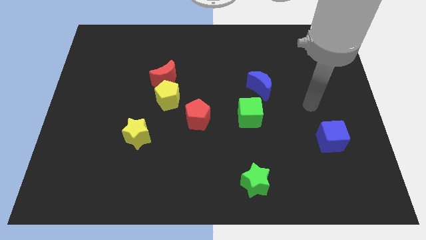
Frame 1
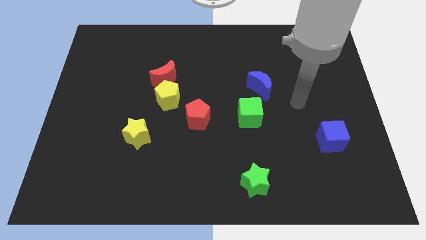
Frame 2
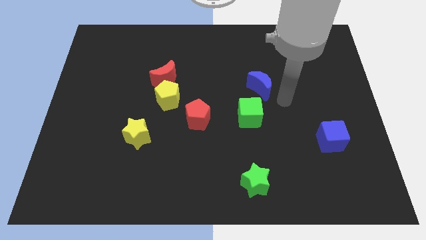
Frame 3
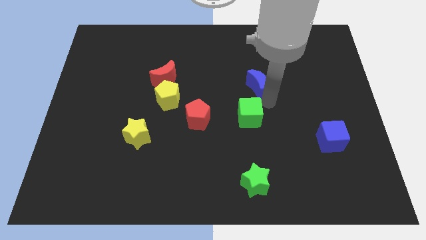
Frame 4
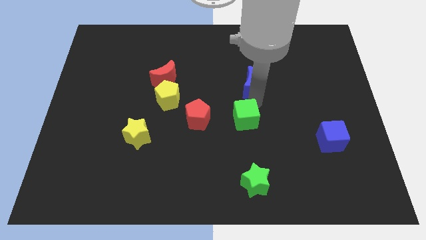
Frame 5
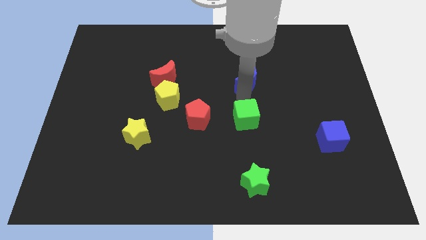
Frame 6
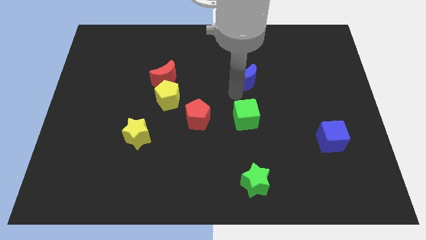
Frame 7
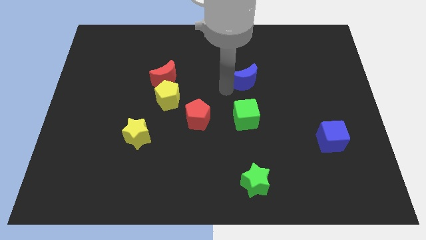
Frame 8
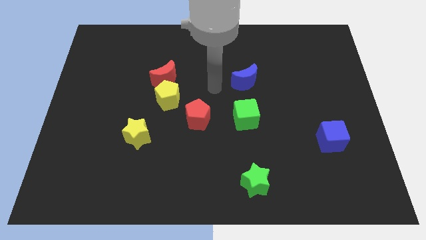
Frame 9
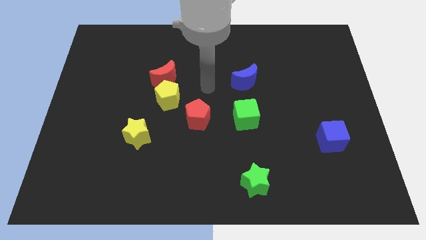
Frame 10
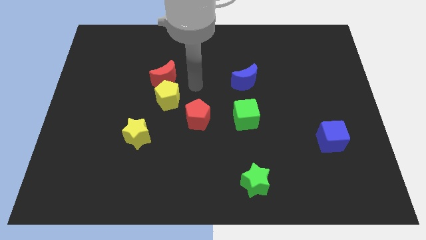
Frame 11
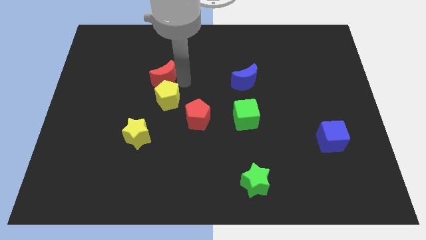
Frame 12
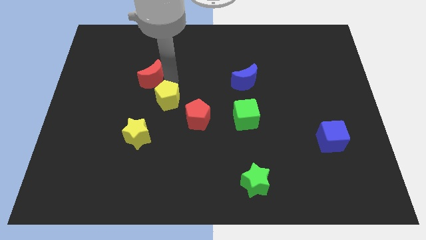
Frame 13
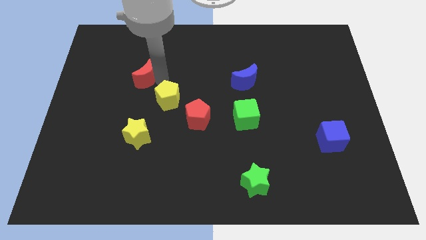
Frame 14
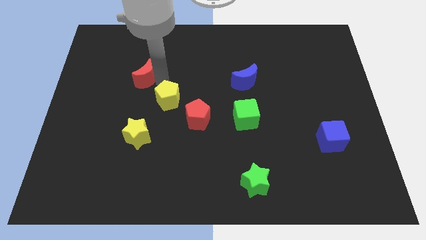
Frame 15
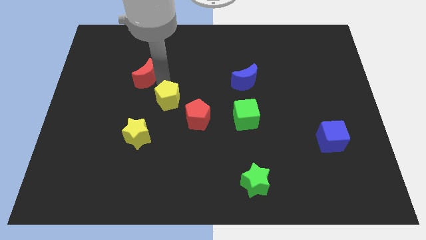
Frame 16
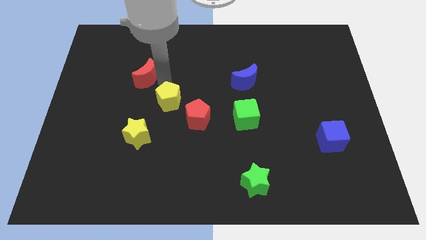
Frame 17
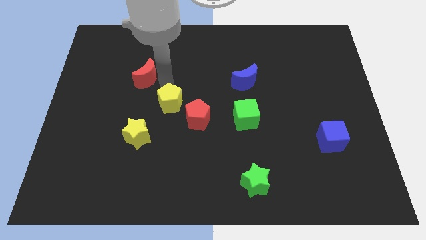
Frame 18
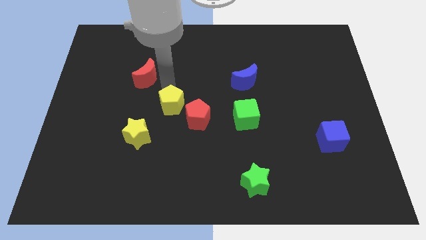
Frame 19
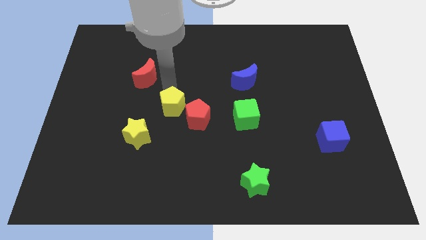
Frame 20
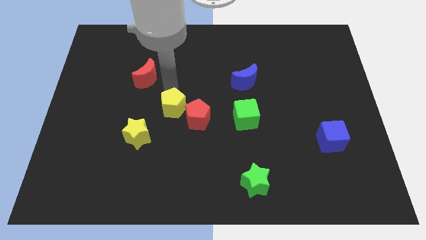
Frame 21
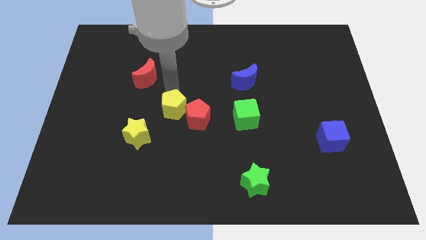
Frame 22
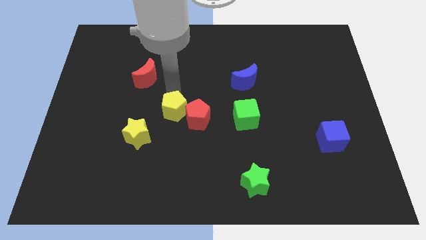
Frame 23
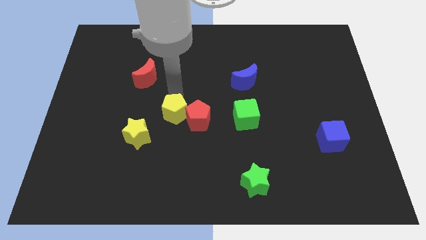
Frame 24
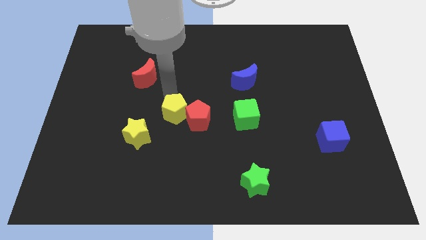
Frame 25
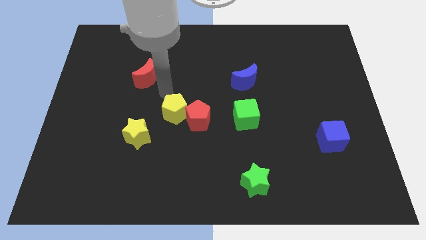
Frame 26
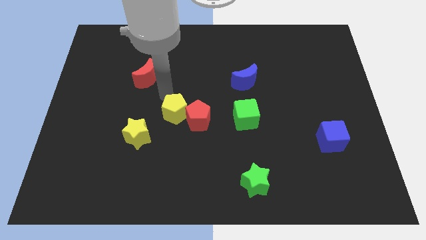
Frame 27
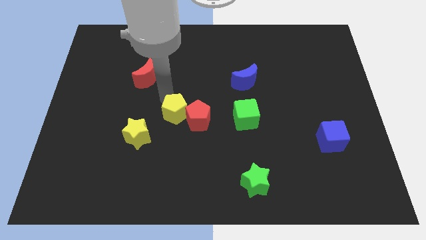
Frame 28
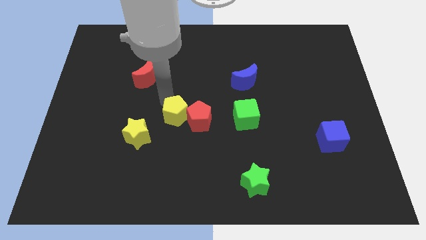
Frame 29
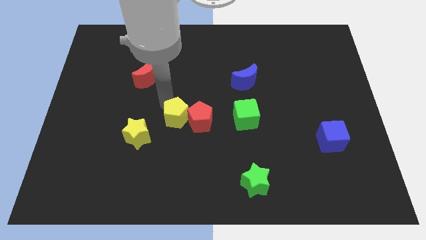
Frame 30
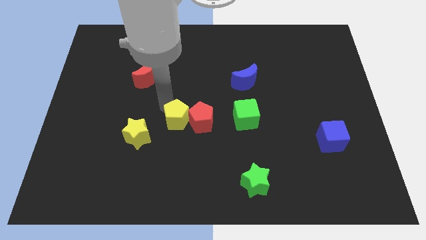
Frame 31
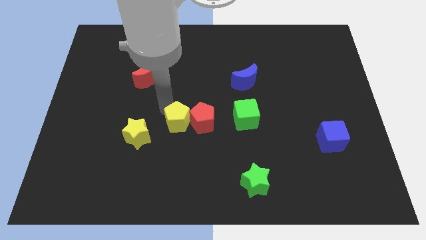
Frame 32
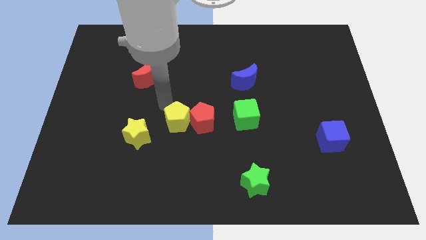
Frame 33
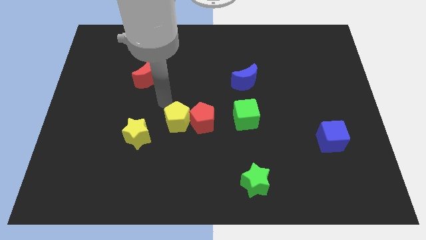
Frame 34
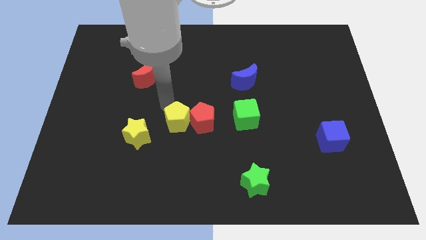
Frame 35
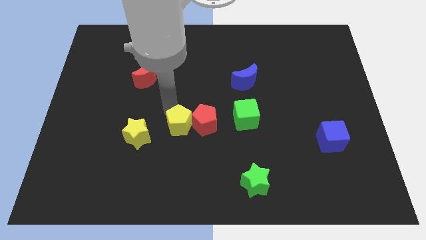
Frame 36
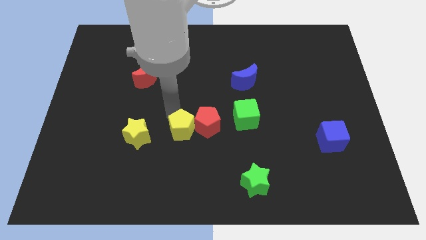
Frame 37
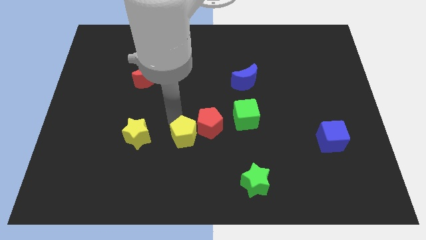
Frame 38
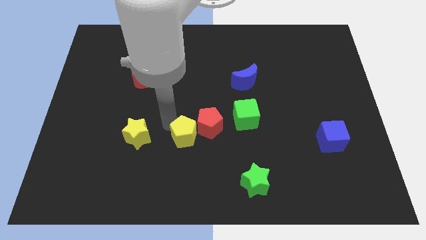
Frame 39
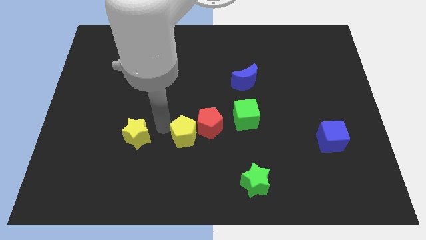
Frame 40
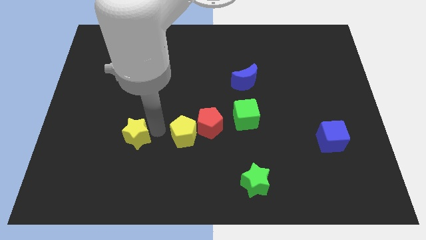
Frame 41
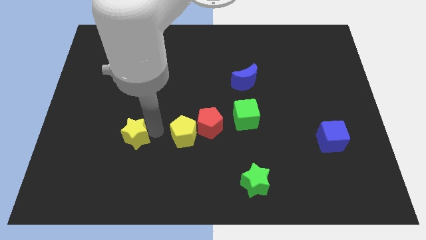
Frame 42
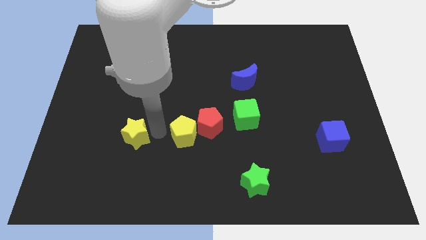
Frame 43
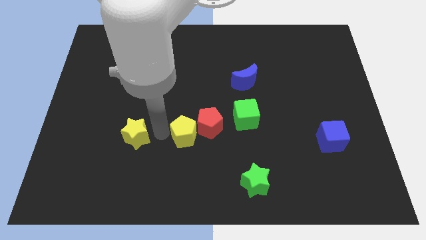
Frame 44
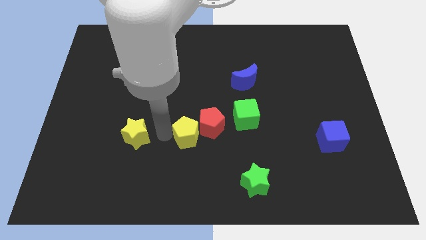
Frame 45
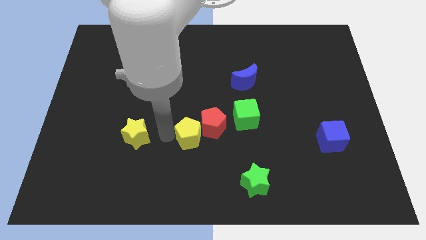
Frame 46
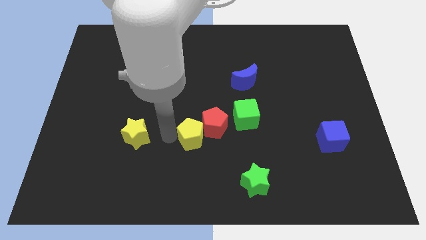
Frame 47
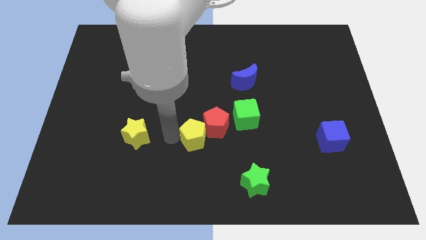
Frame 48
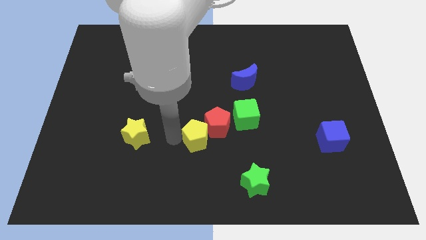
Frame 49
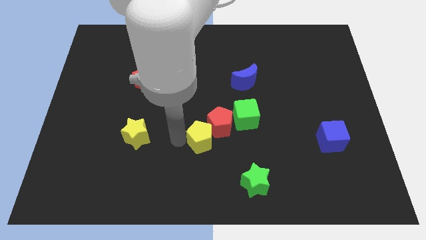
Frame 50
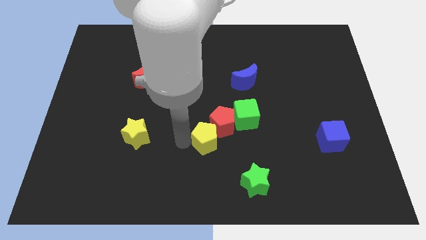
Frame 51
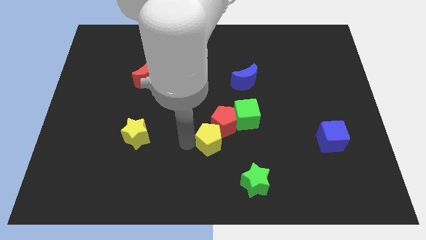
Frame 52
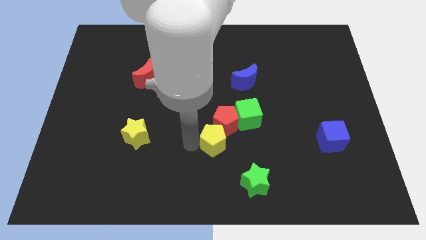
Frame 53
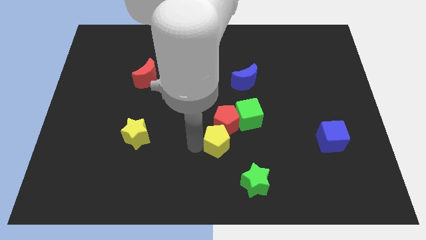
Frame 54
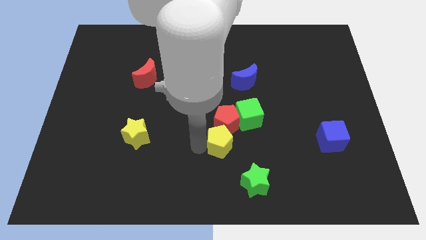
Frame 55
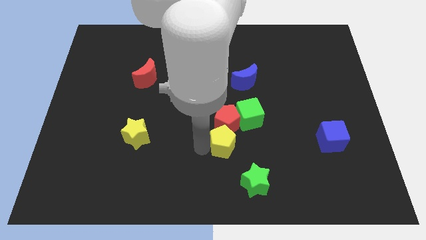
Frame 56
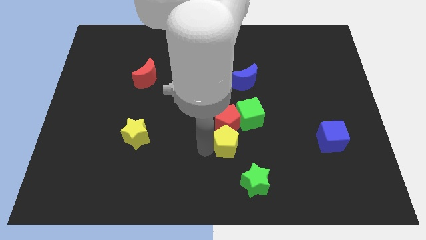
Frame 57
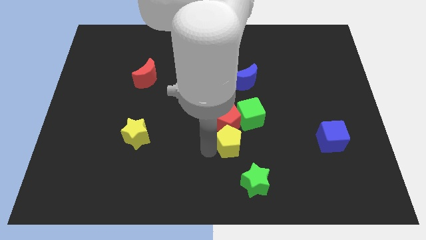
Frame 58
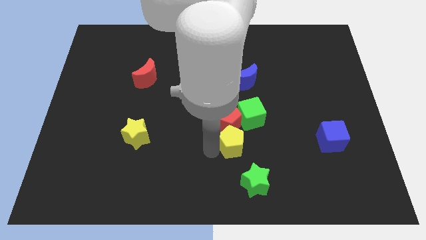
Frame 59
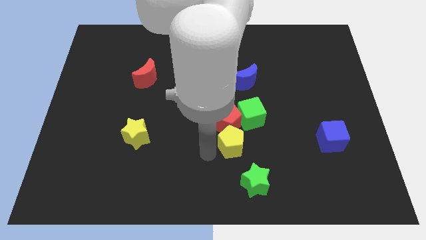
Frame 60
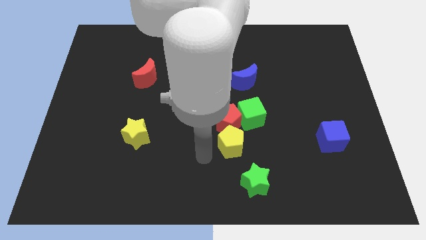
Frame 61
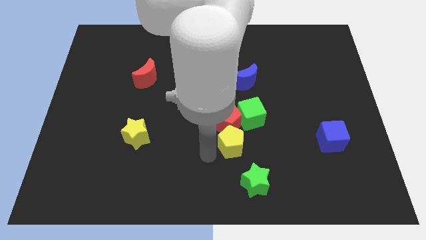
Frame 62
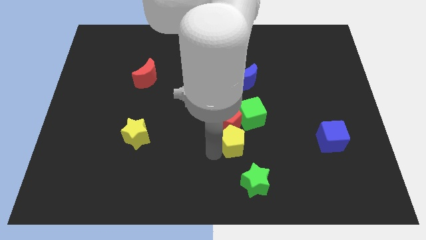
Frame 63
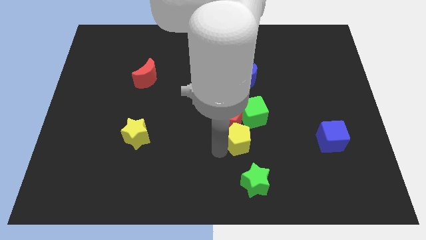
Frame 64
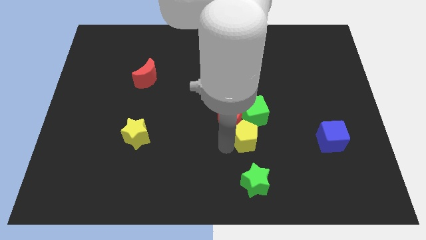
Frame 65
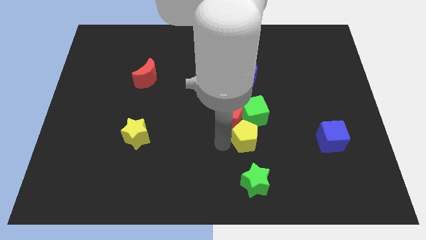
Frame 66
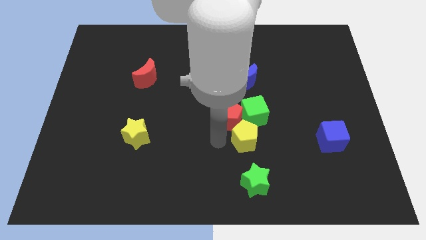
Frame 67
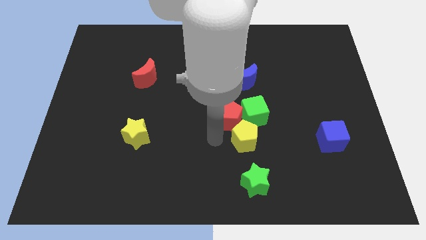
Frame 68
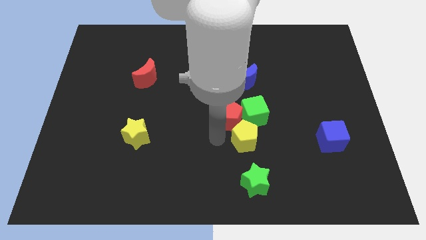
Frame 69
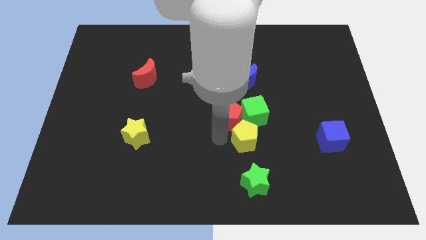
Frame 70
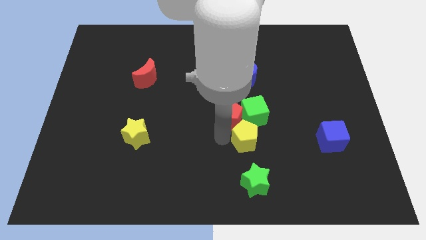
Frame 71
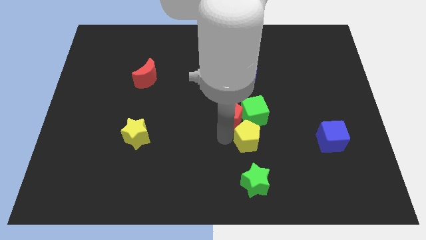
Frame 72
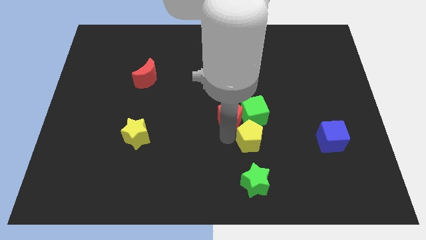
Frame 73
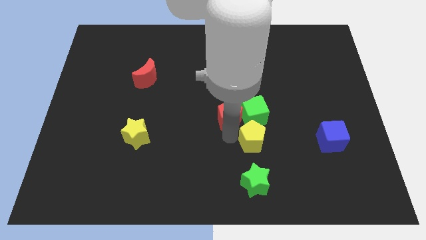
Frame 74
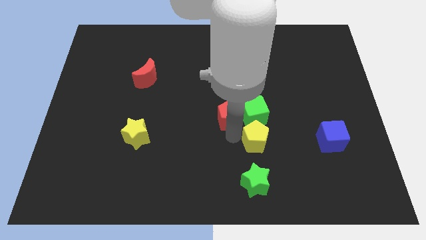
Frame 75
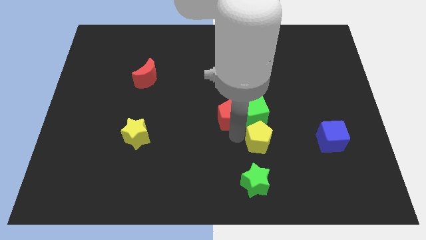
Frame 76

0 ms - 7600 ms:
push the yellow pentagon just left of the blue cube
